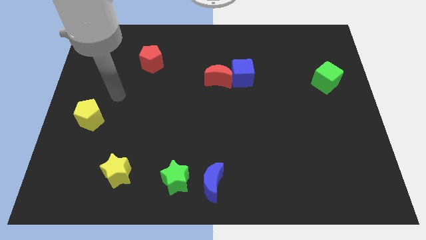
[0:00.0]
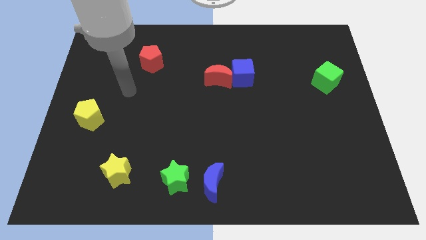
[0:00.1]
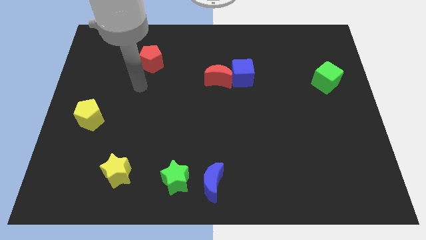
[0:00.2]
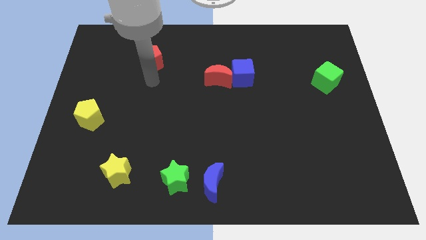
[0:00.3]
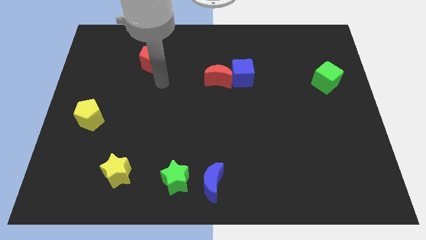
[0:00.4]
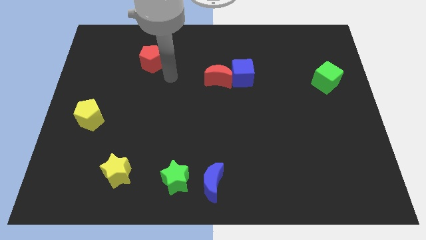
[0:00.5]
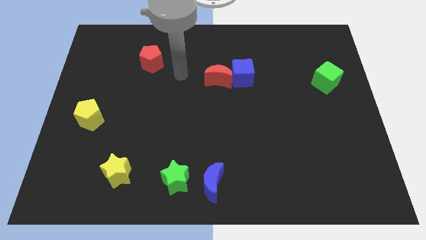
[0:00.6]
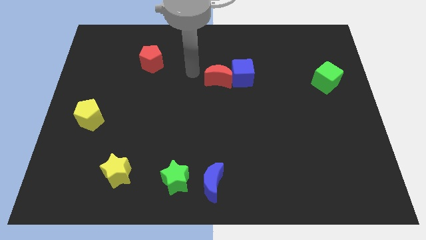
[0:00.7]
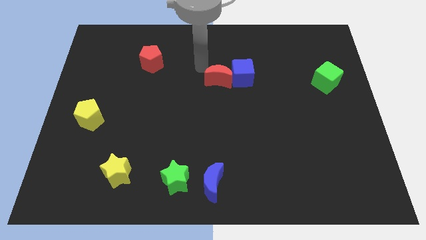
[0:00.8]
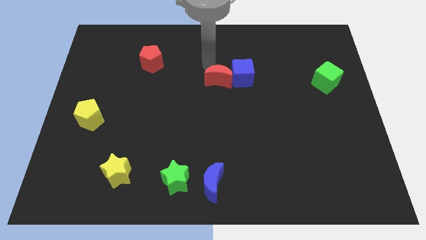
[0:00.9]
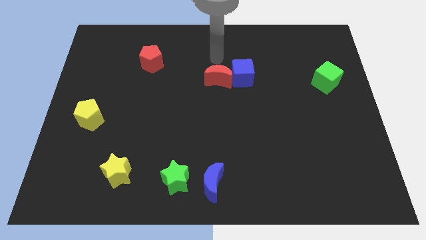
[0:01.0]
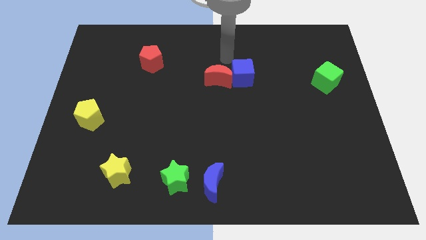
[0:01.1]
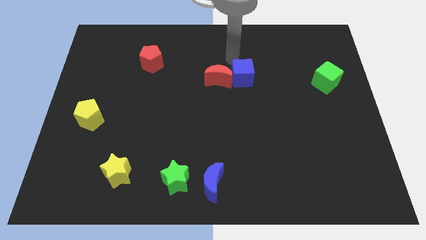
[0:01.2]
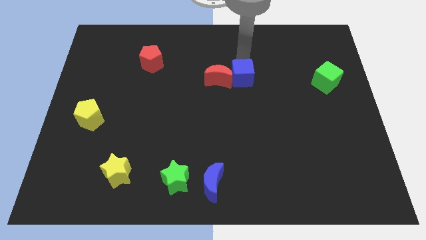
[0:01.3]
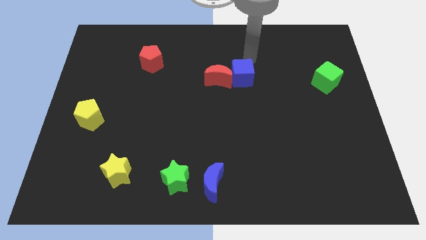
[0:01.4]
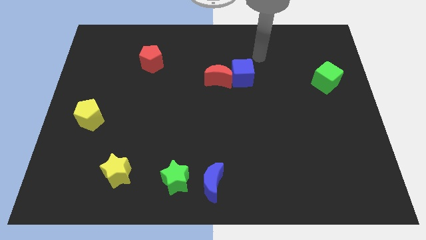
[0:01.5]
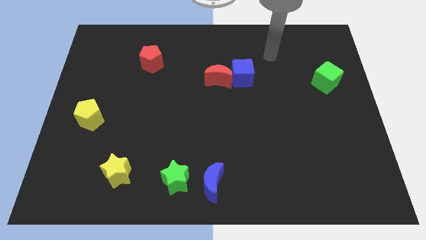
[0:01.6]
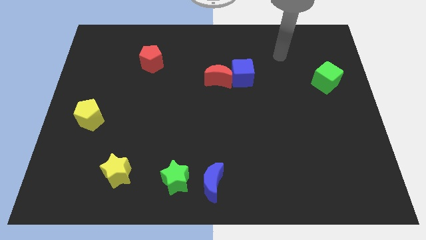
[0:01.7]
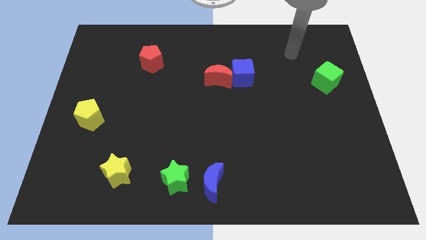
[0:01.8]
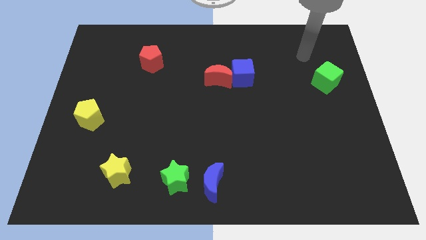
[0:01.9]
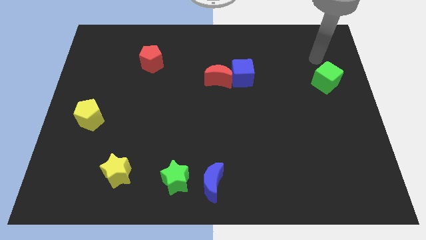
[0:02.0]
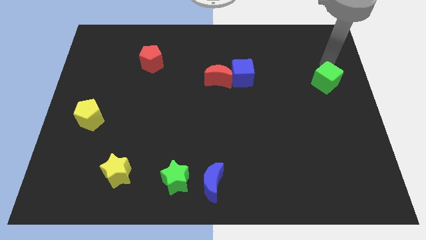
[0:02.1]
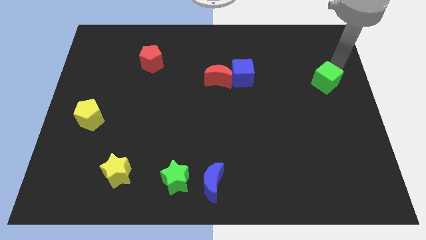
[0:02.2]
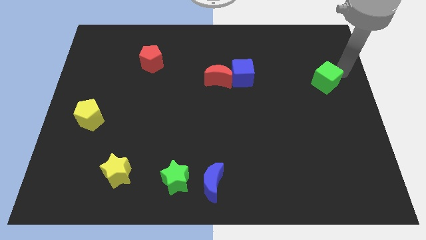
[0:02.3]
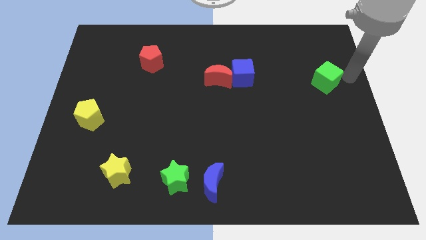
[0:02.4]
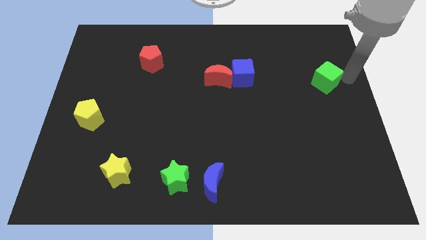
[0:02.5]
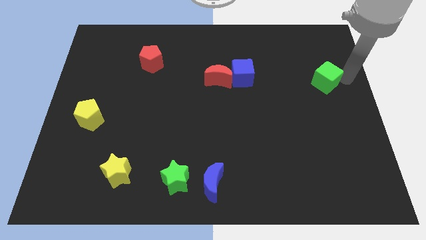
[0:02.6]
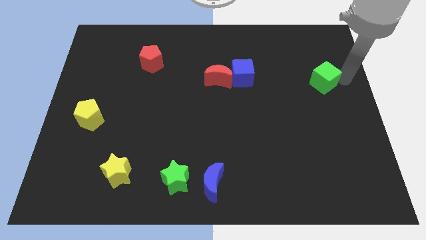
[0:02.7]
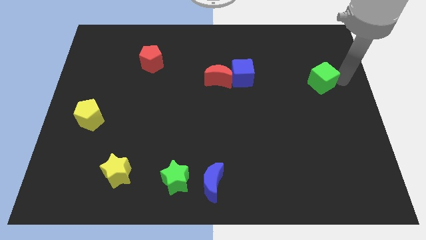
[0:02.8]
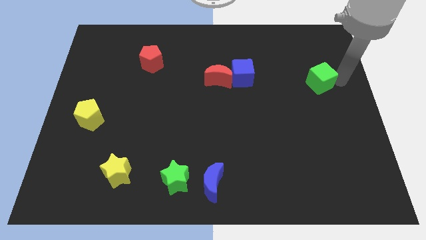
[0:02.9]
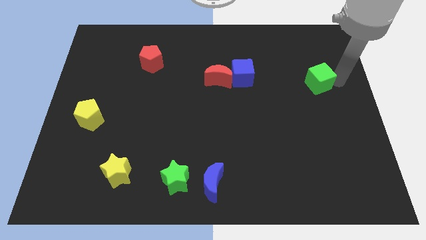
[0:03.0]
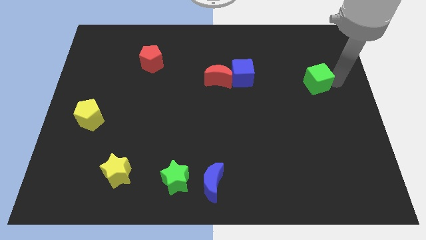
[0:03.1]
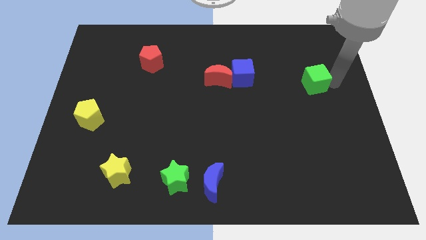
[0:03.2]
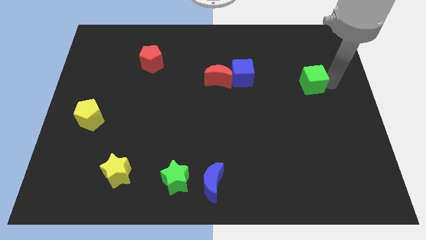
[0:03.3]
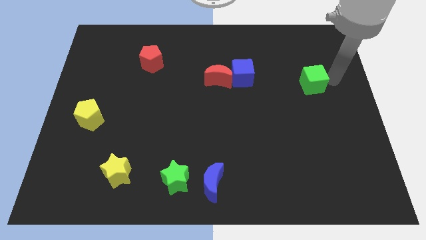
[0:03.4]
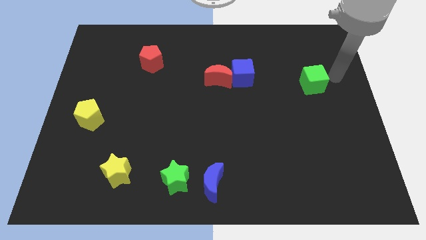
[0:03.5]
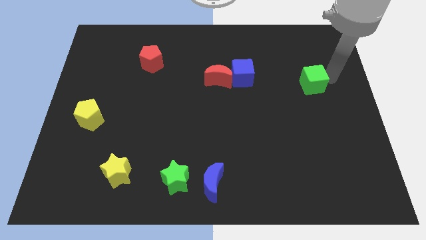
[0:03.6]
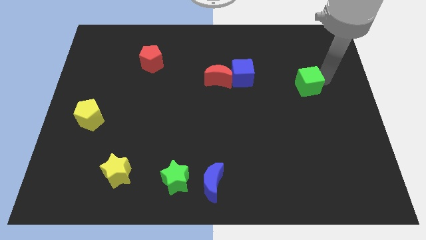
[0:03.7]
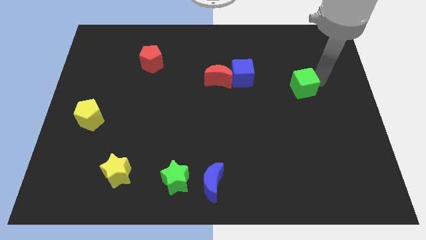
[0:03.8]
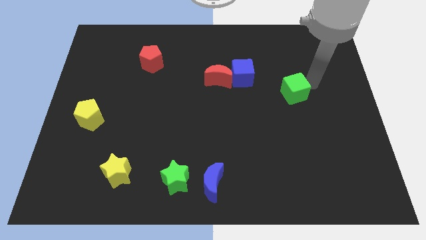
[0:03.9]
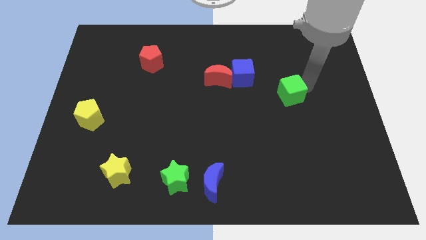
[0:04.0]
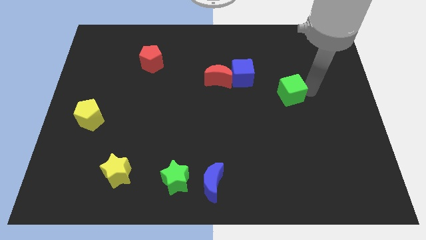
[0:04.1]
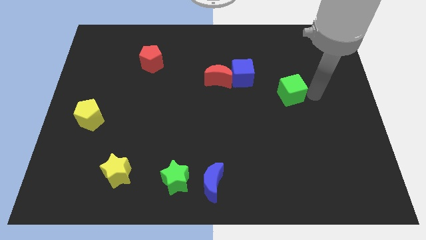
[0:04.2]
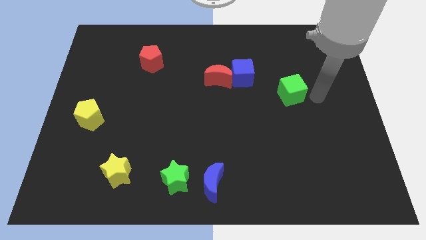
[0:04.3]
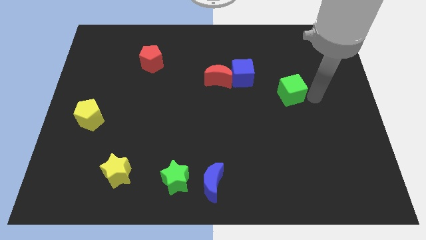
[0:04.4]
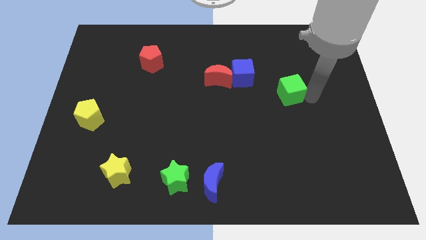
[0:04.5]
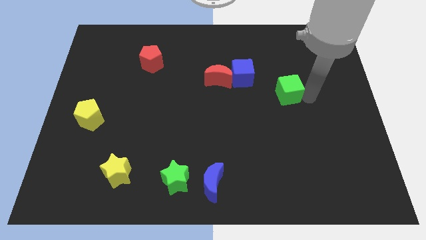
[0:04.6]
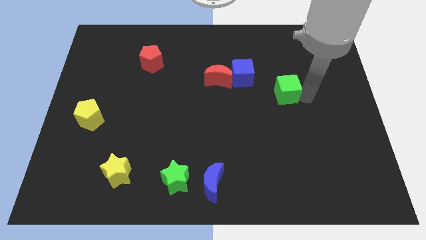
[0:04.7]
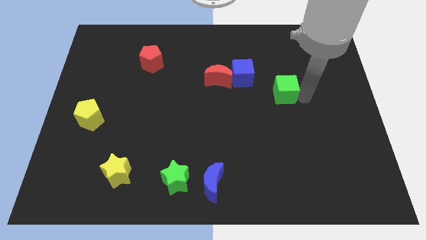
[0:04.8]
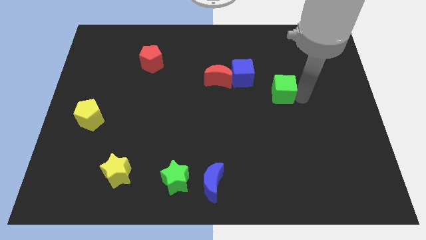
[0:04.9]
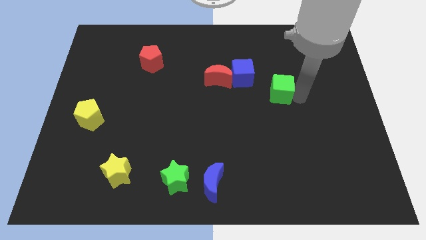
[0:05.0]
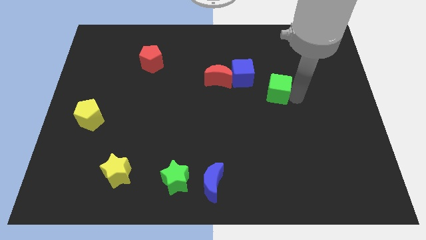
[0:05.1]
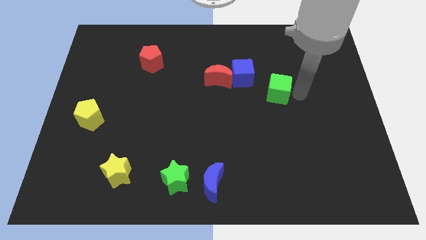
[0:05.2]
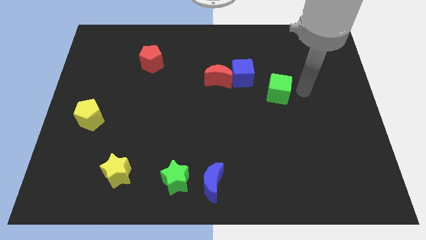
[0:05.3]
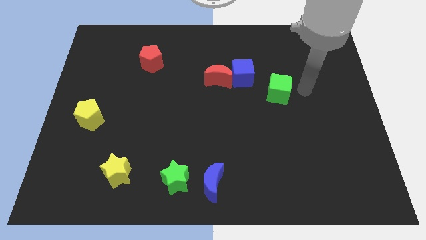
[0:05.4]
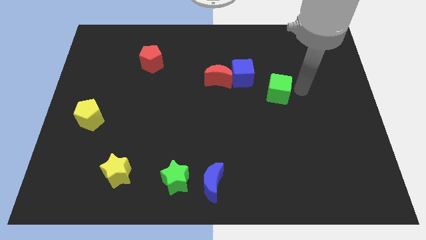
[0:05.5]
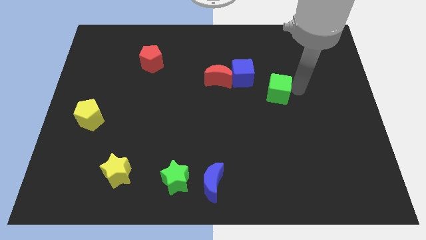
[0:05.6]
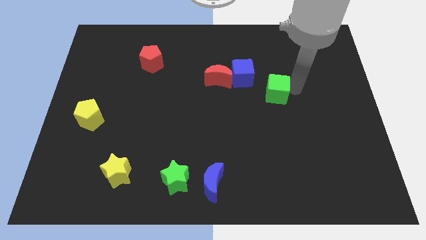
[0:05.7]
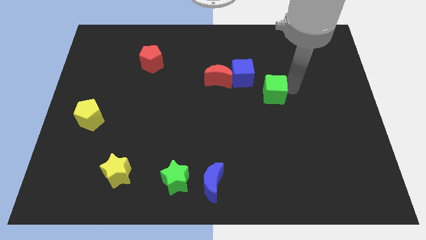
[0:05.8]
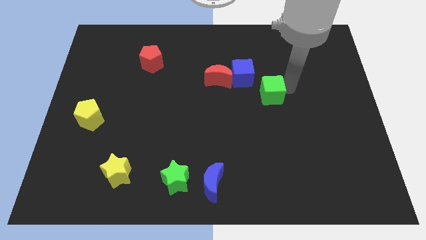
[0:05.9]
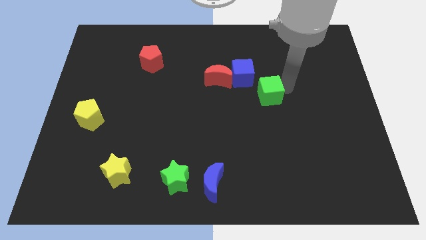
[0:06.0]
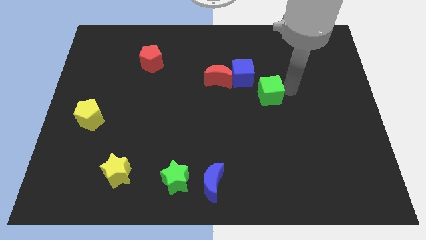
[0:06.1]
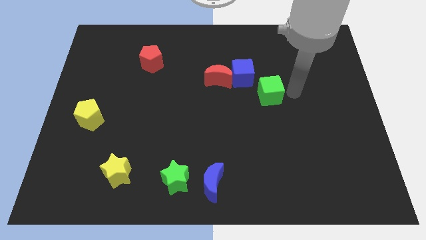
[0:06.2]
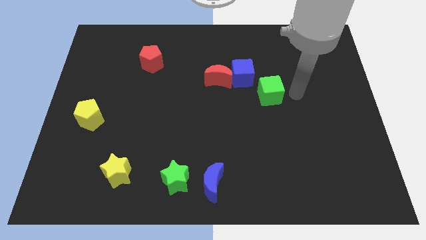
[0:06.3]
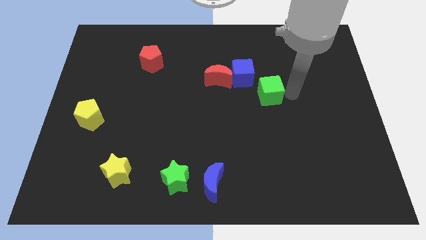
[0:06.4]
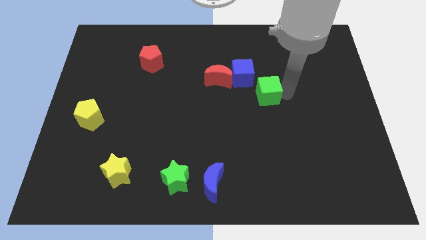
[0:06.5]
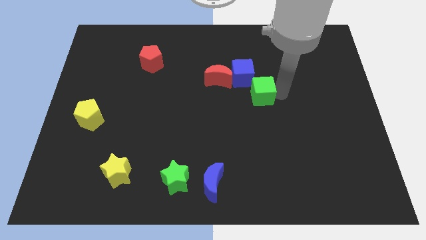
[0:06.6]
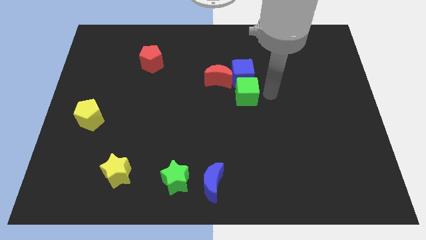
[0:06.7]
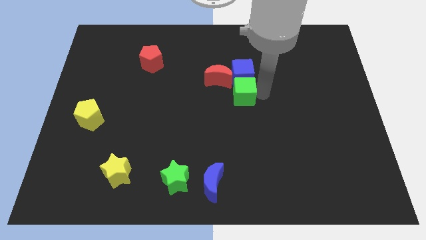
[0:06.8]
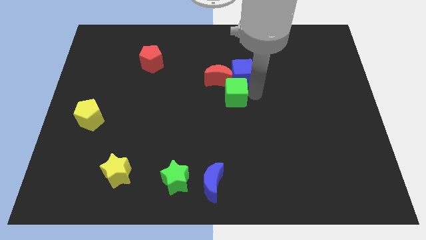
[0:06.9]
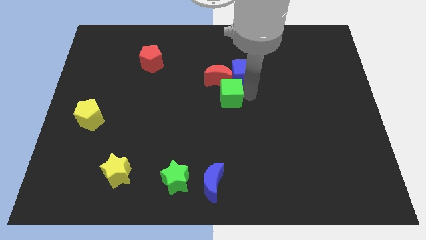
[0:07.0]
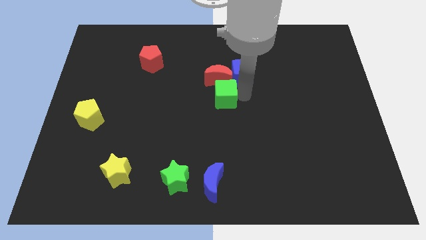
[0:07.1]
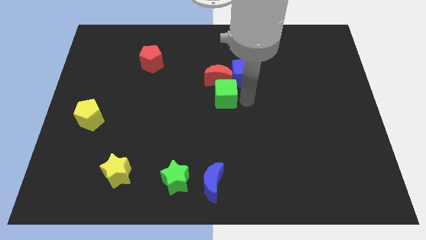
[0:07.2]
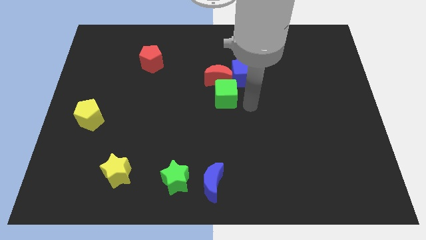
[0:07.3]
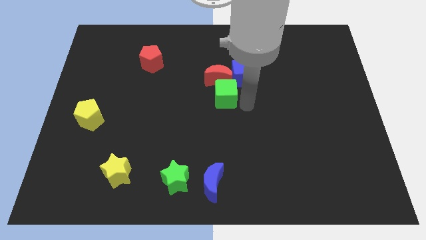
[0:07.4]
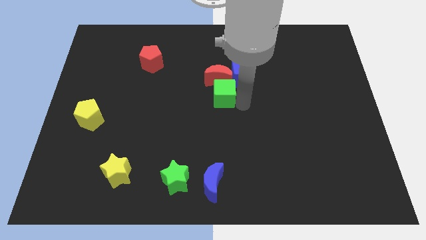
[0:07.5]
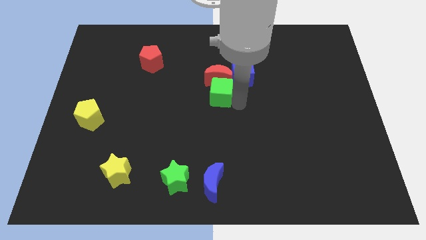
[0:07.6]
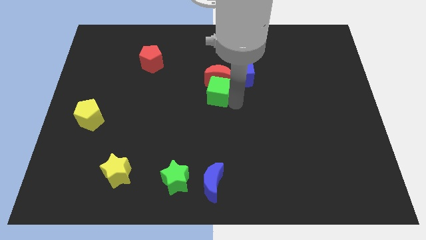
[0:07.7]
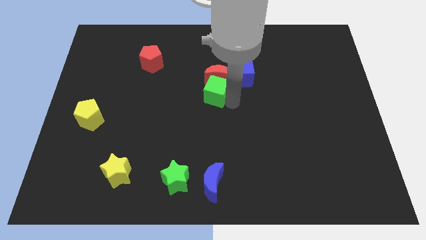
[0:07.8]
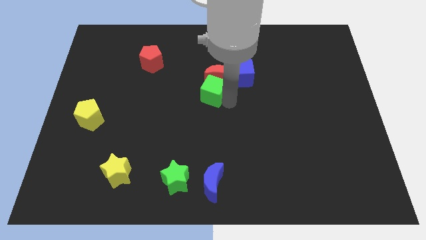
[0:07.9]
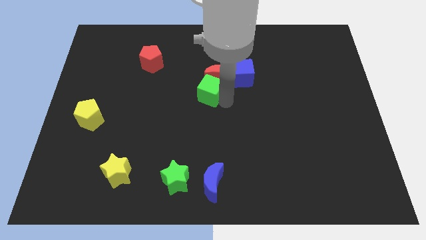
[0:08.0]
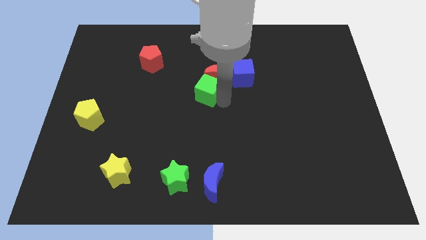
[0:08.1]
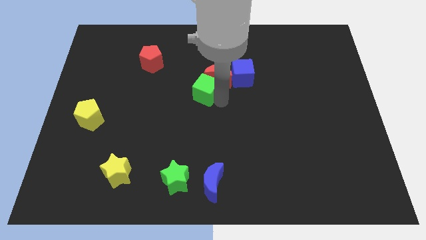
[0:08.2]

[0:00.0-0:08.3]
move the green cube to the left side of the red moon

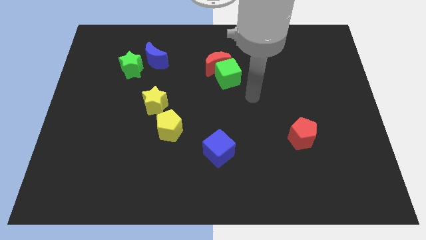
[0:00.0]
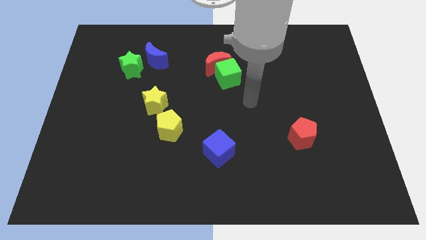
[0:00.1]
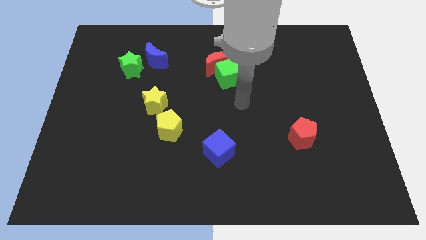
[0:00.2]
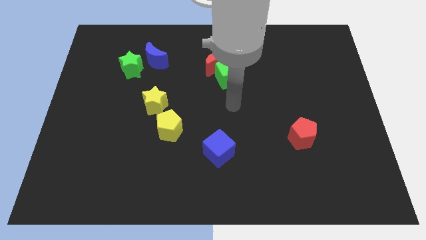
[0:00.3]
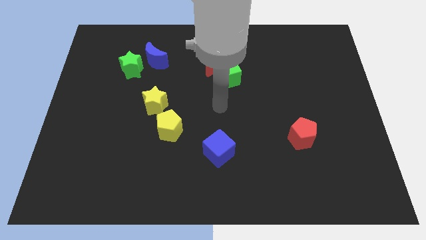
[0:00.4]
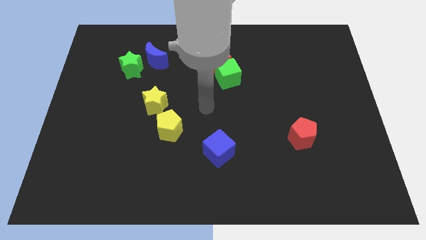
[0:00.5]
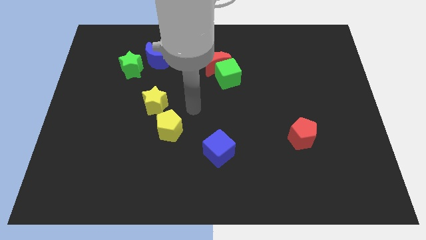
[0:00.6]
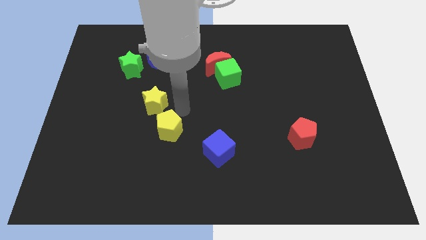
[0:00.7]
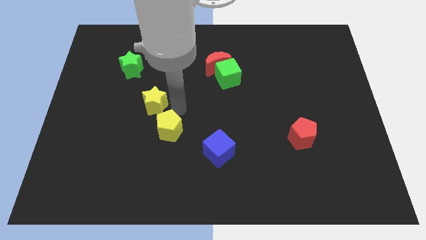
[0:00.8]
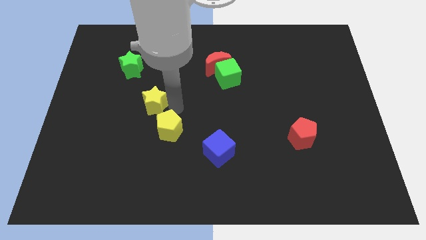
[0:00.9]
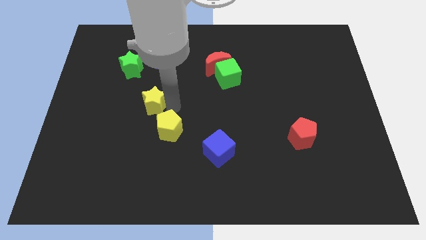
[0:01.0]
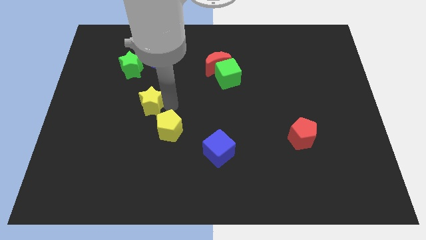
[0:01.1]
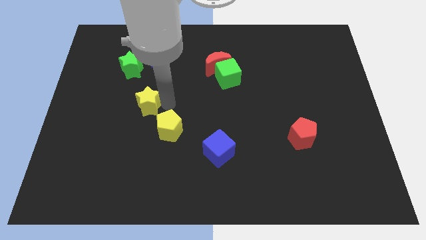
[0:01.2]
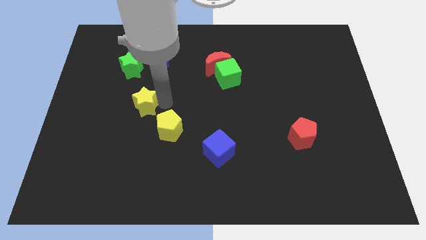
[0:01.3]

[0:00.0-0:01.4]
put the yellow star below the green star
